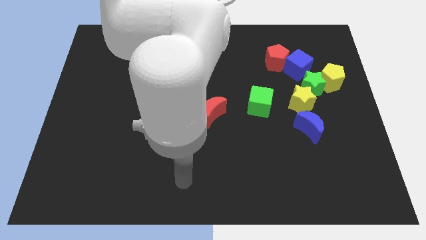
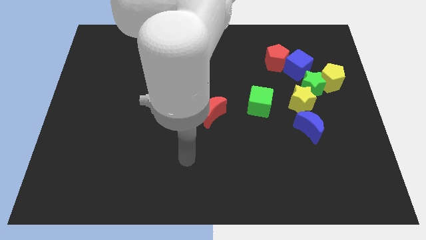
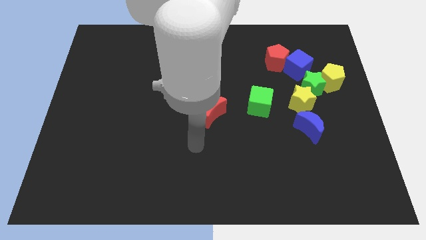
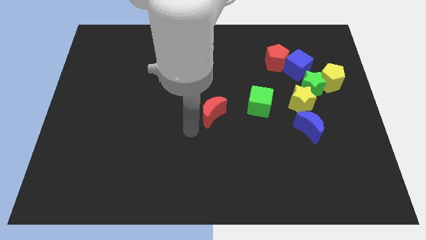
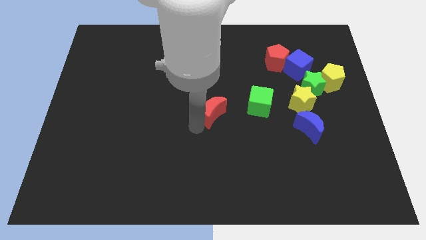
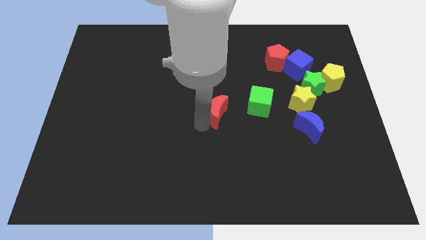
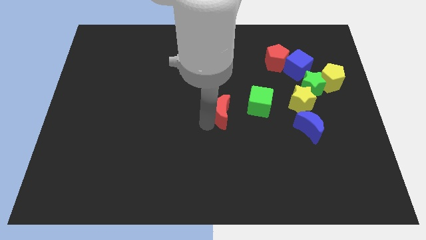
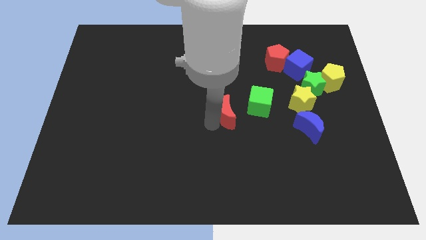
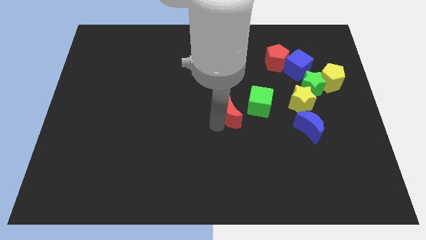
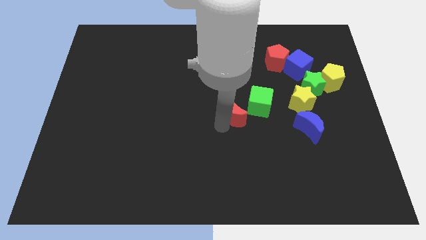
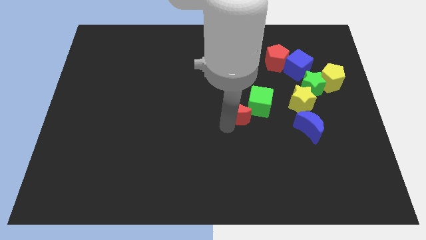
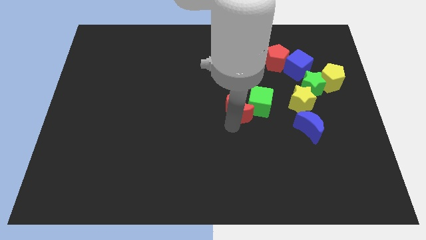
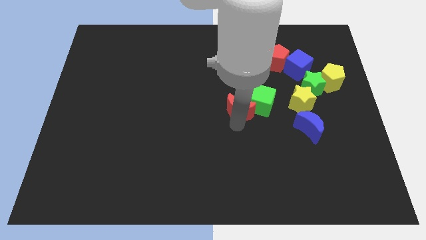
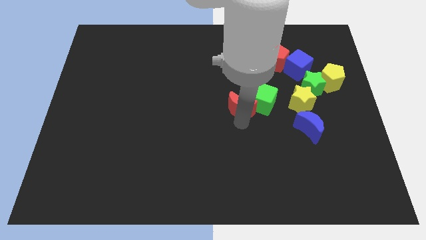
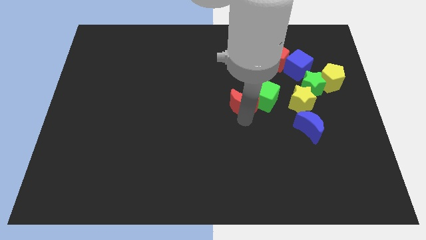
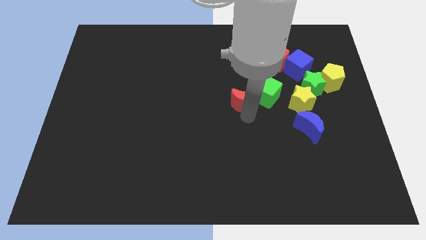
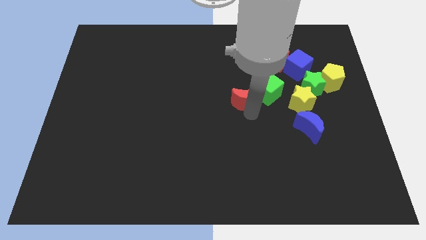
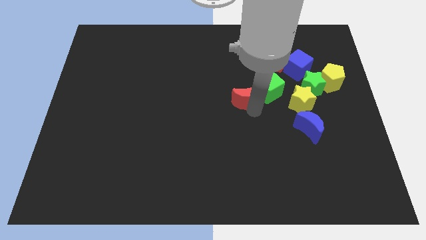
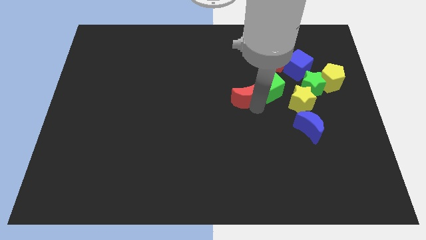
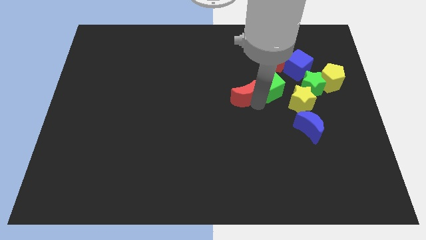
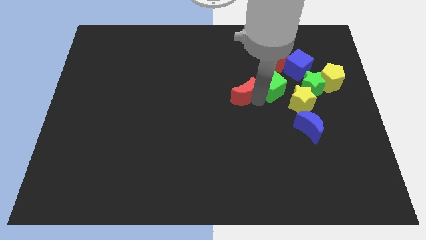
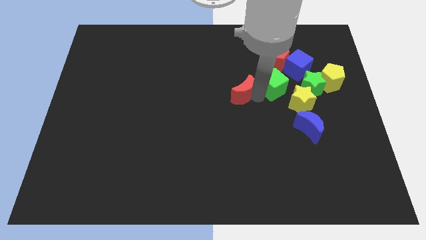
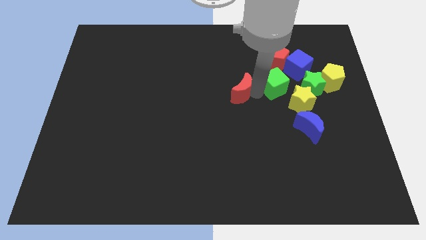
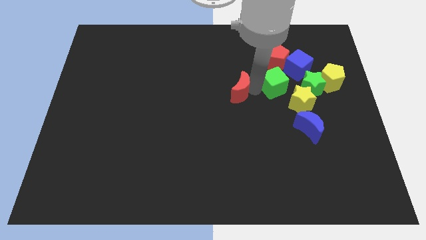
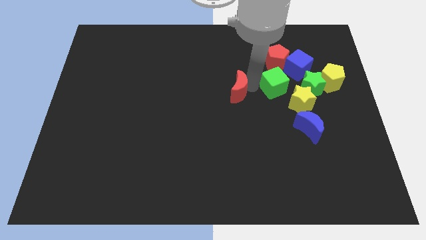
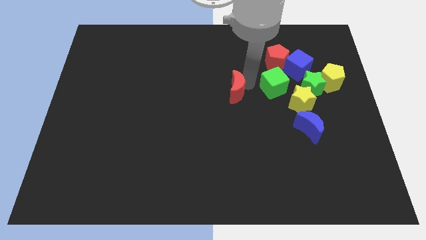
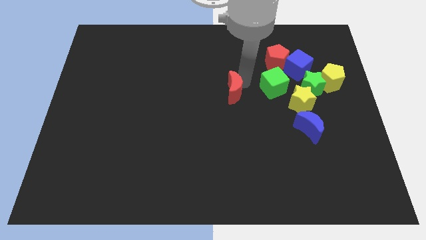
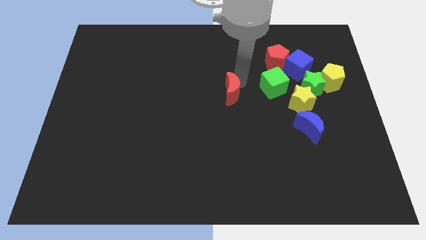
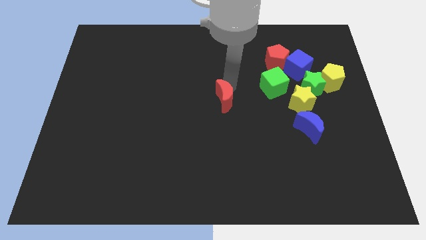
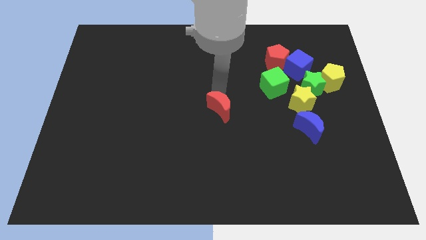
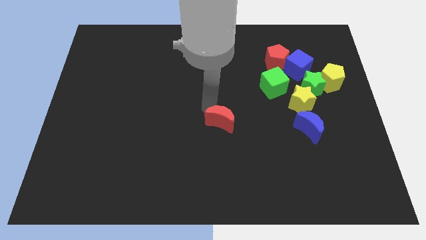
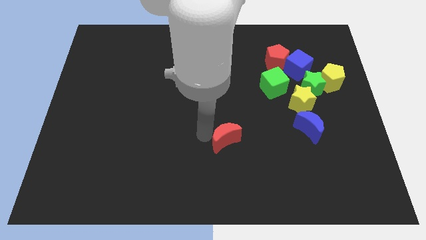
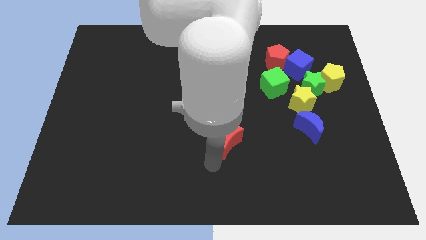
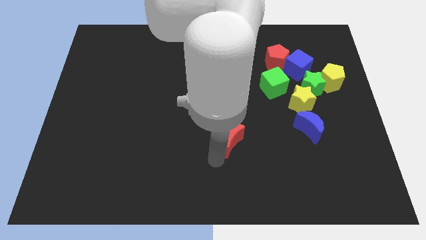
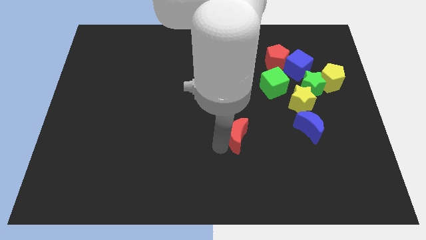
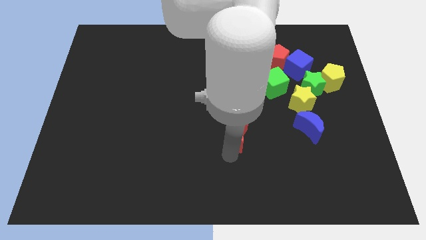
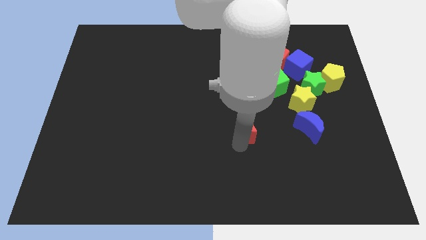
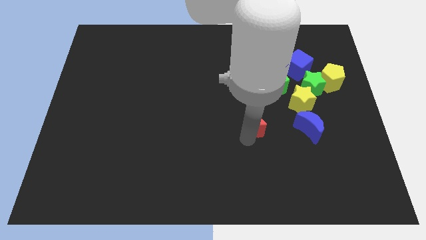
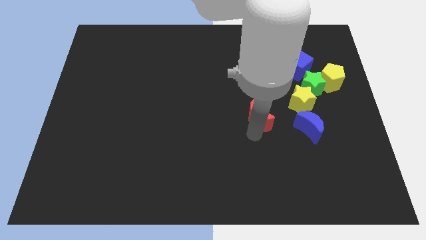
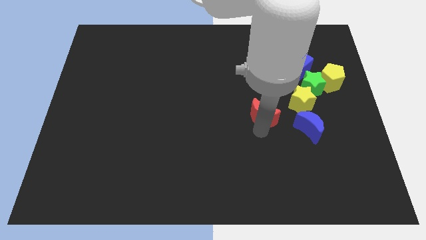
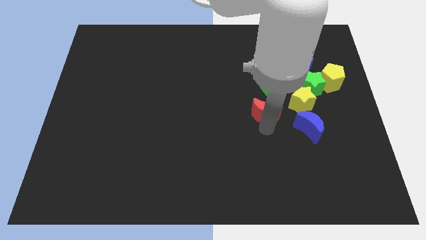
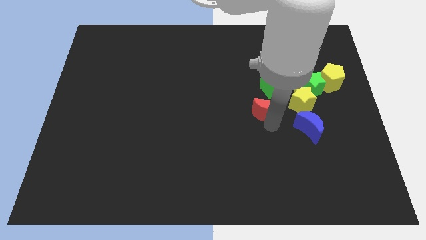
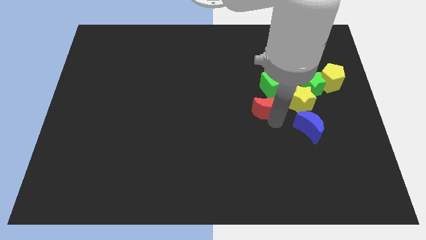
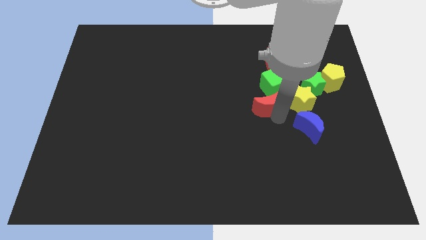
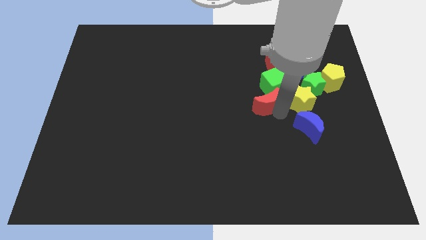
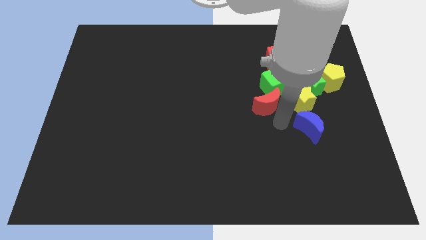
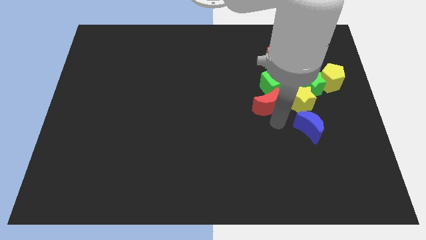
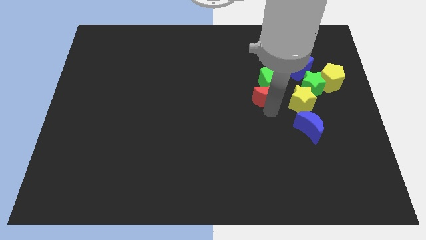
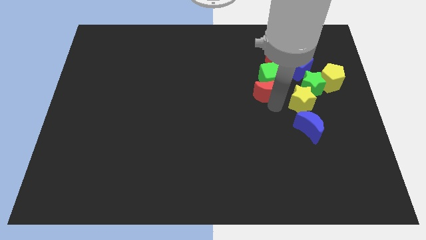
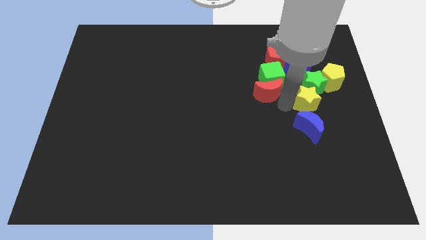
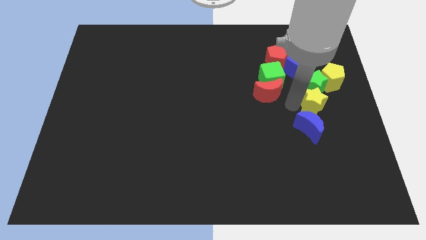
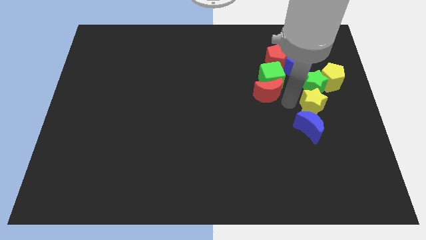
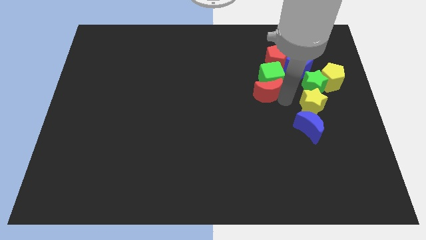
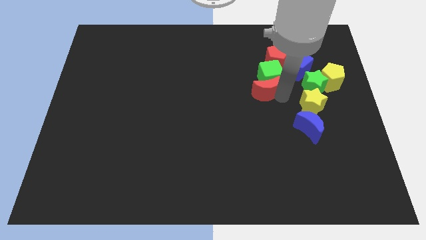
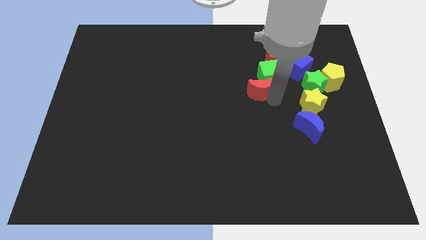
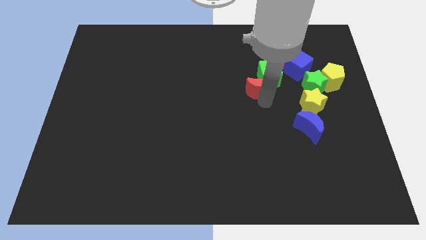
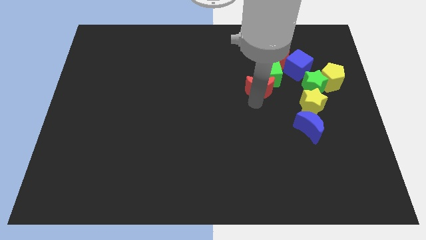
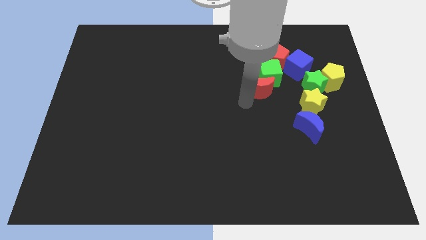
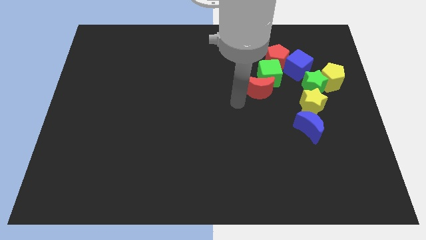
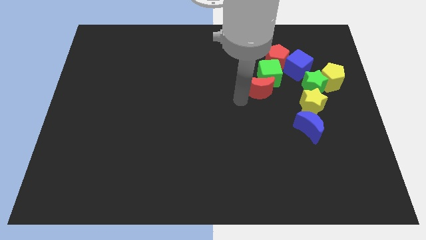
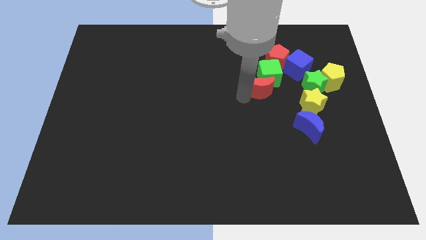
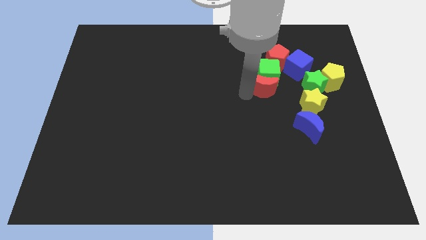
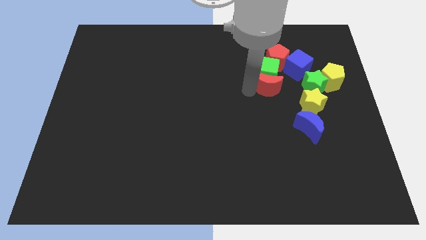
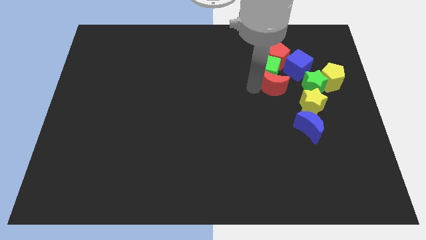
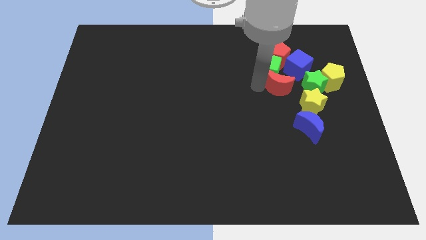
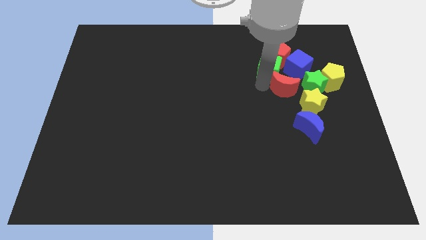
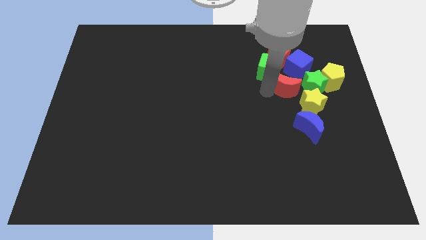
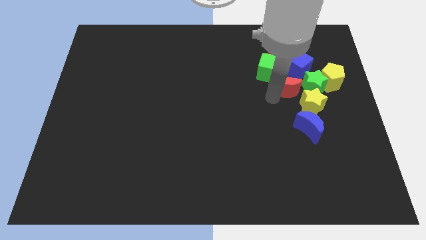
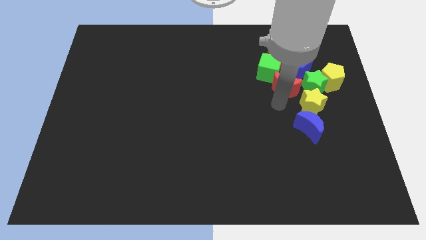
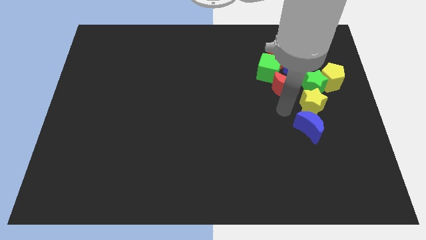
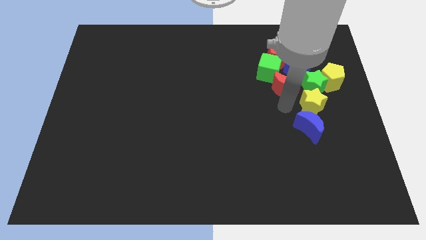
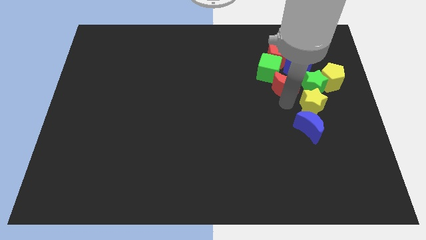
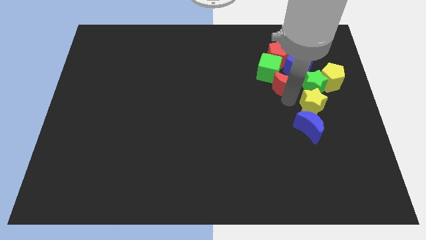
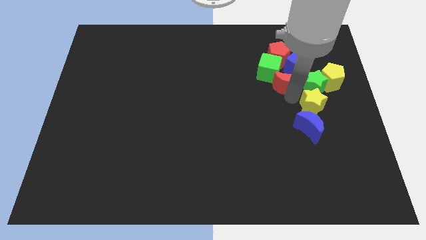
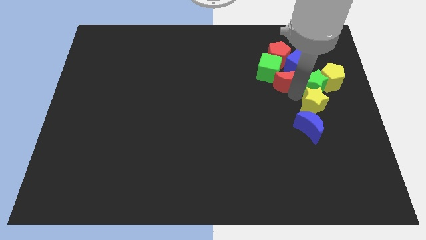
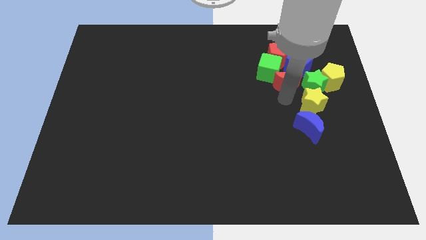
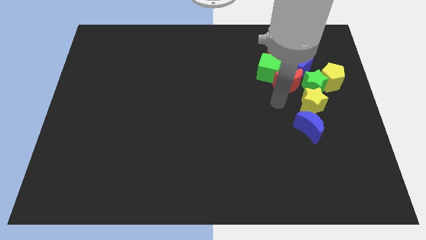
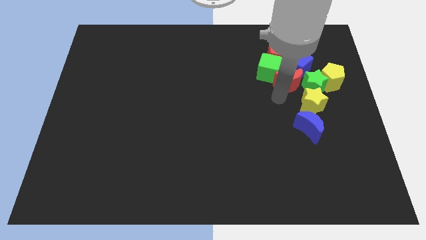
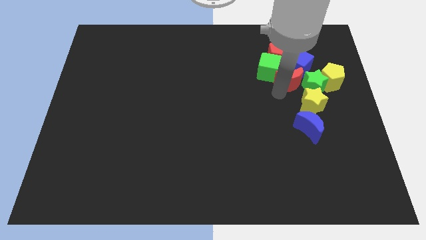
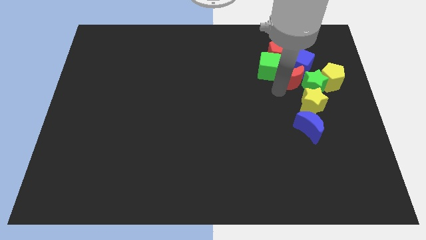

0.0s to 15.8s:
move the red moon towards the blue cube
